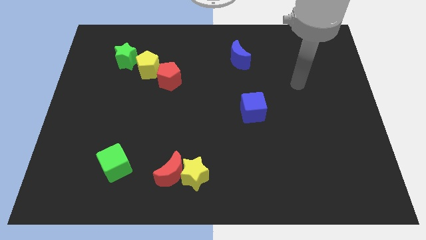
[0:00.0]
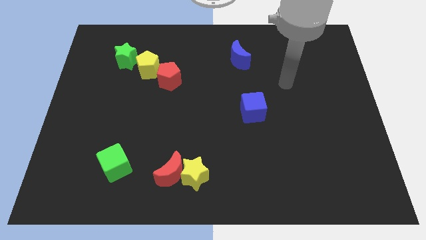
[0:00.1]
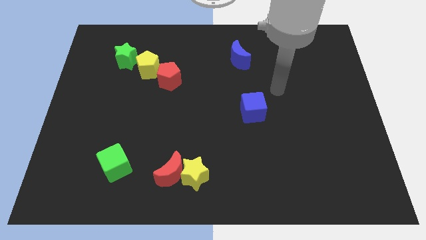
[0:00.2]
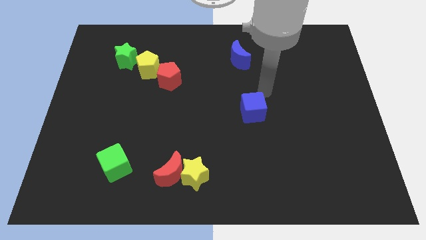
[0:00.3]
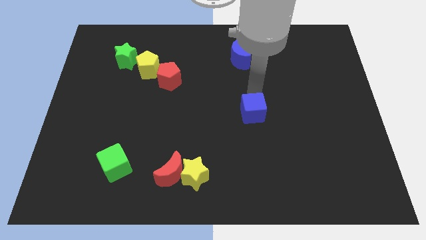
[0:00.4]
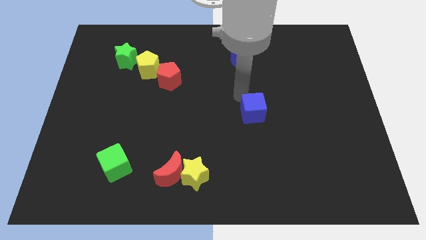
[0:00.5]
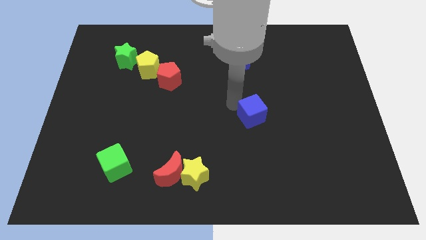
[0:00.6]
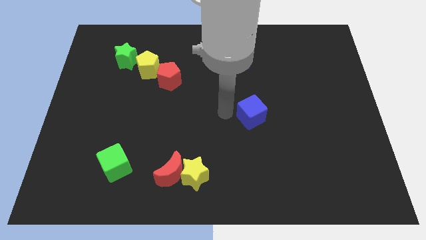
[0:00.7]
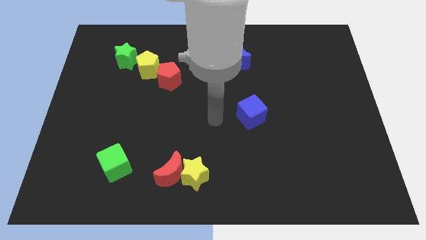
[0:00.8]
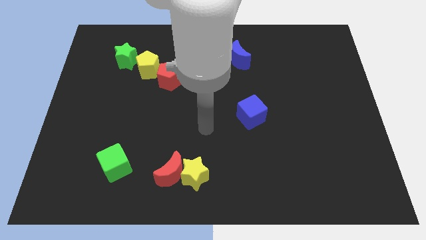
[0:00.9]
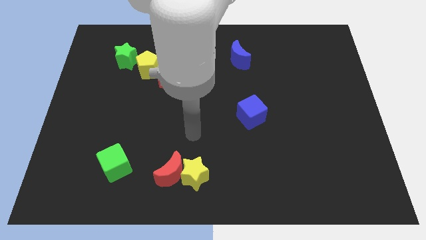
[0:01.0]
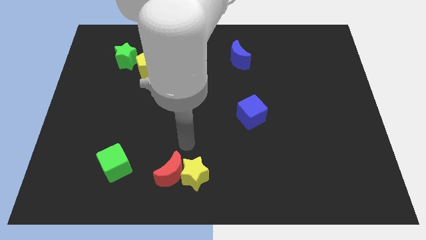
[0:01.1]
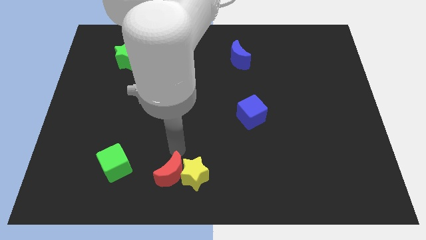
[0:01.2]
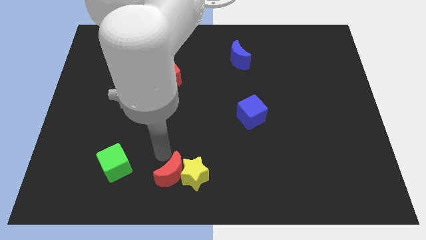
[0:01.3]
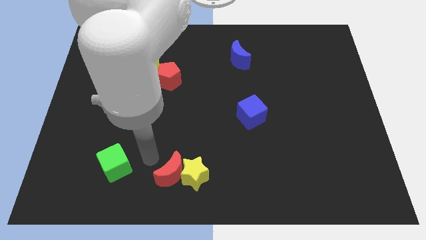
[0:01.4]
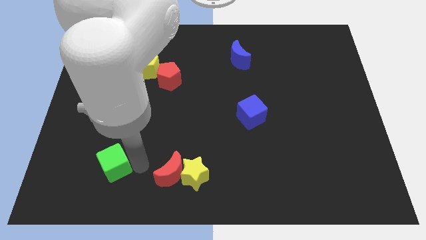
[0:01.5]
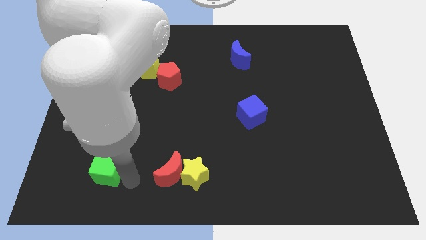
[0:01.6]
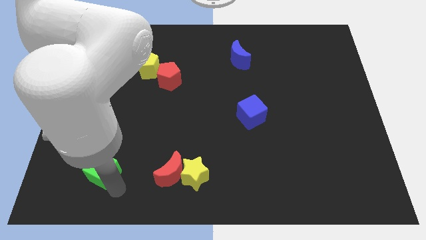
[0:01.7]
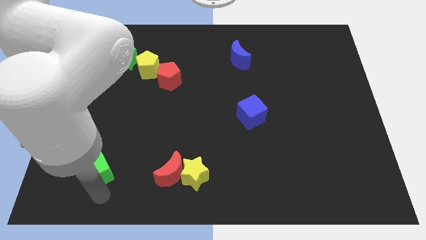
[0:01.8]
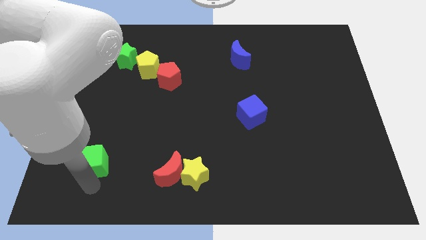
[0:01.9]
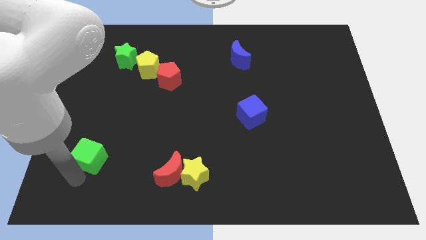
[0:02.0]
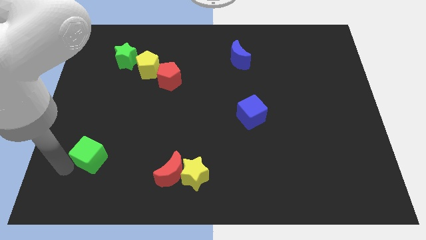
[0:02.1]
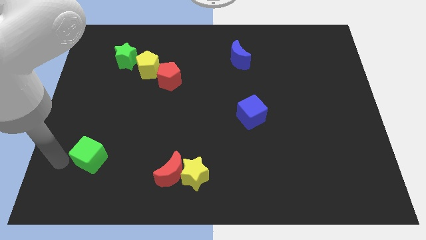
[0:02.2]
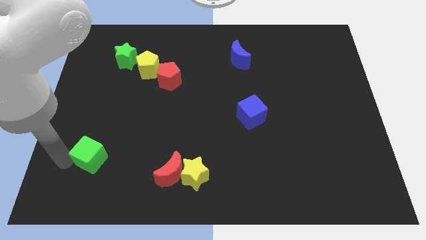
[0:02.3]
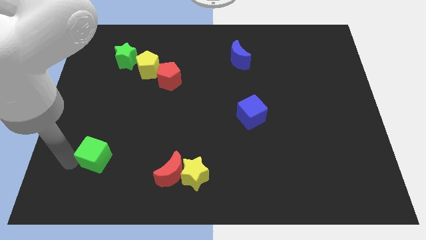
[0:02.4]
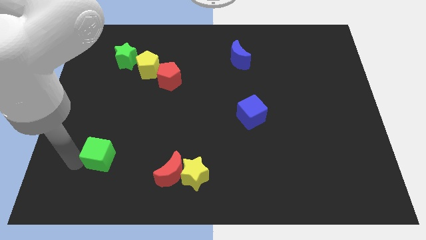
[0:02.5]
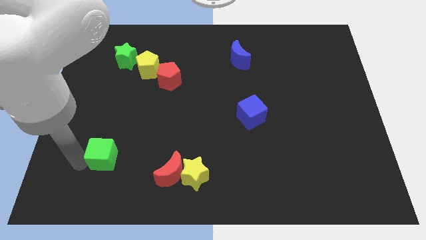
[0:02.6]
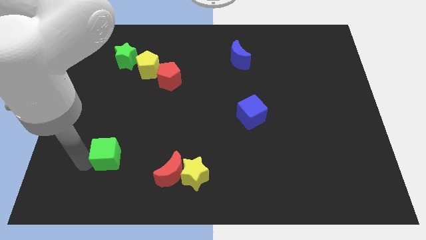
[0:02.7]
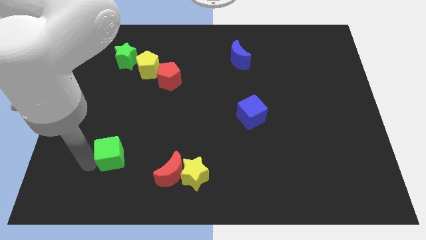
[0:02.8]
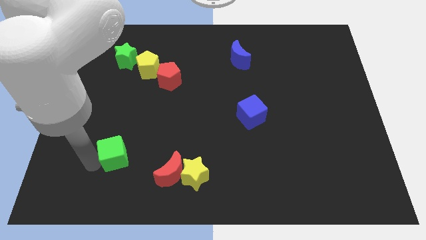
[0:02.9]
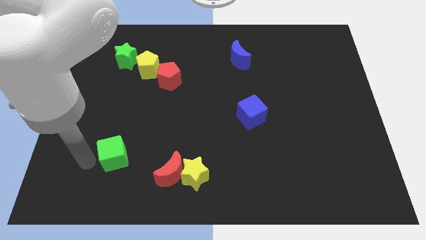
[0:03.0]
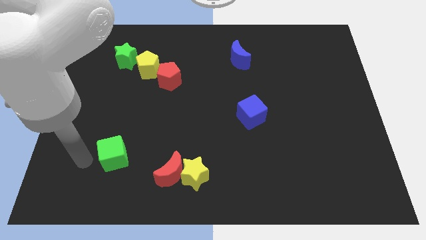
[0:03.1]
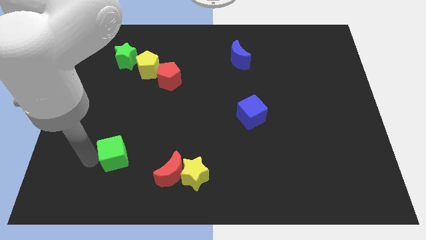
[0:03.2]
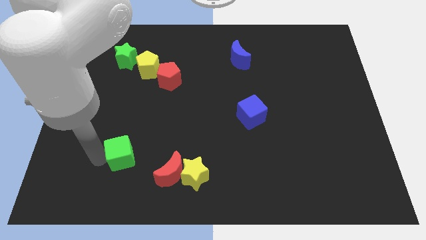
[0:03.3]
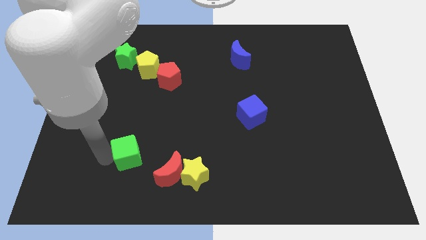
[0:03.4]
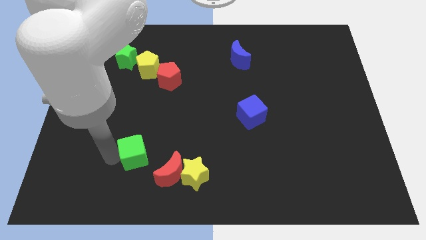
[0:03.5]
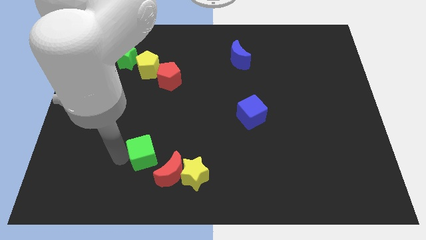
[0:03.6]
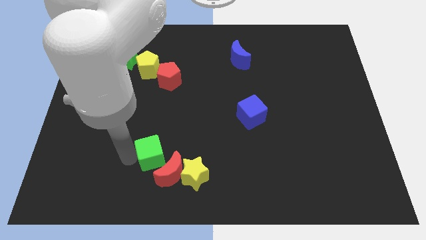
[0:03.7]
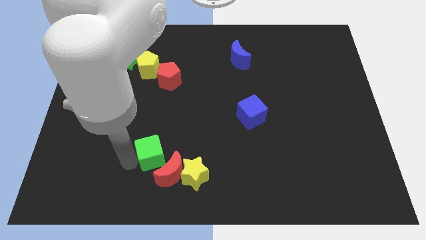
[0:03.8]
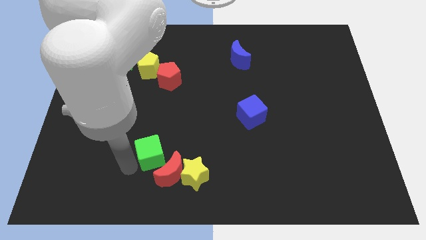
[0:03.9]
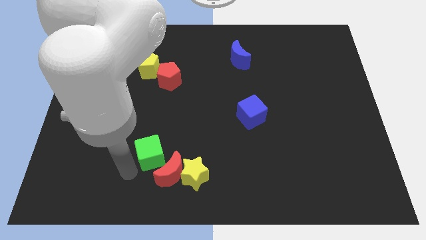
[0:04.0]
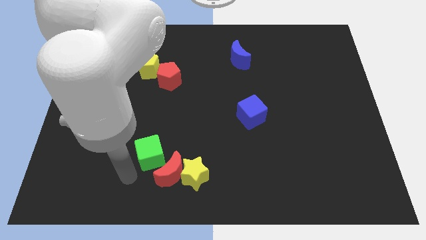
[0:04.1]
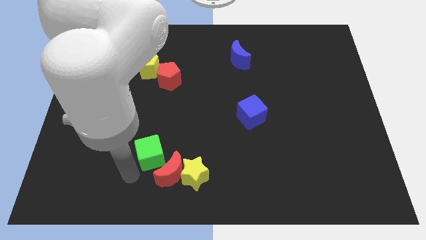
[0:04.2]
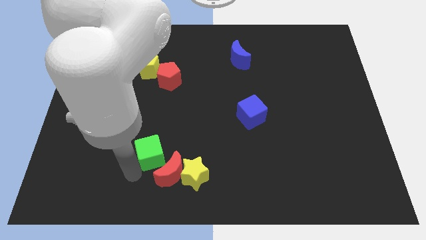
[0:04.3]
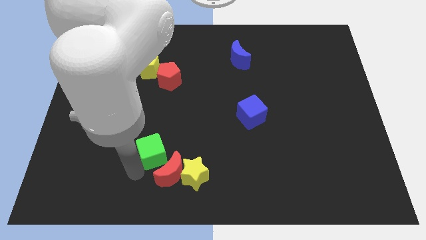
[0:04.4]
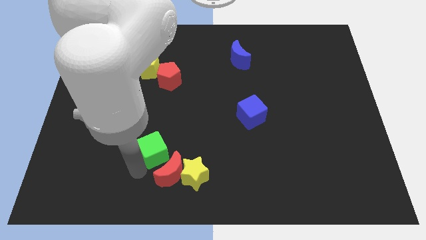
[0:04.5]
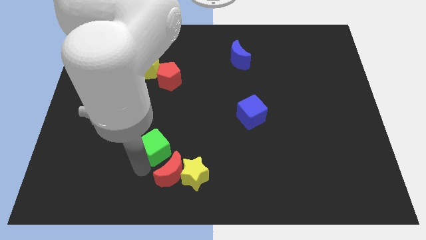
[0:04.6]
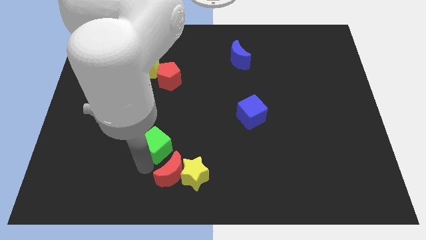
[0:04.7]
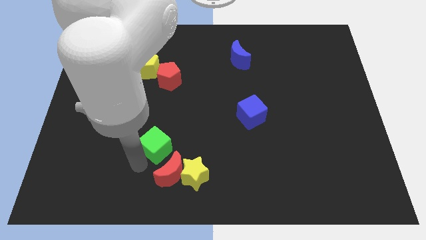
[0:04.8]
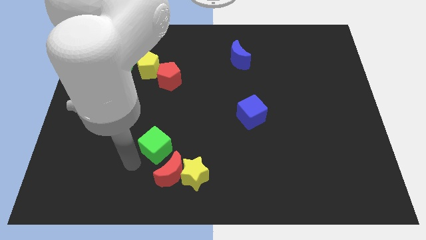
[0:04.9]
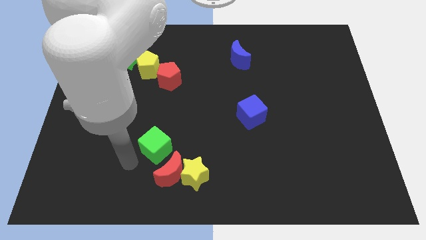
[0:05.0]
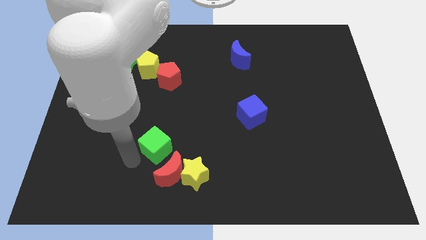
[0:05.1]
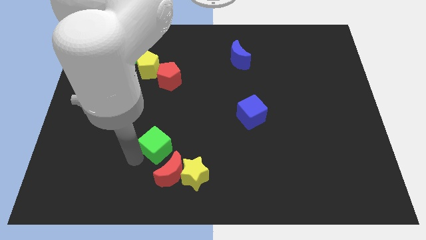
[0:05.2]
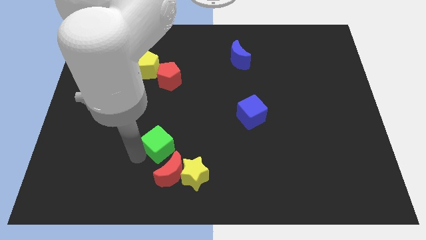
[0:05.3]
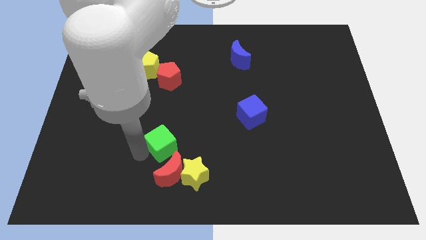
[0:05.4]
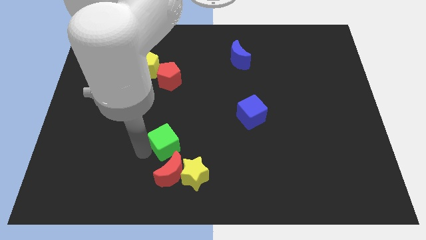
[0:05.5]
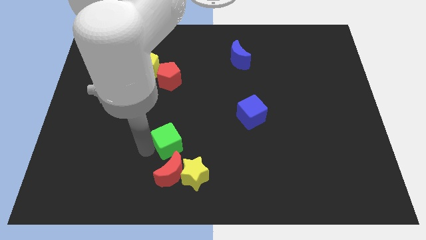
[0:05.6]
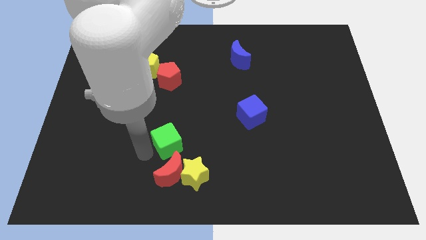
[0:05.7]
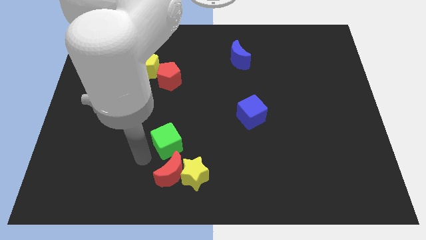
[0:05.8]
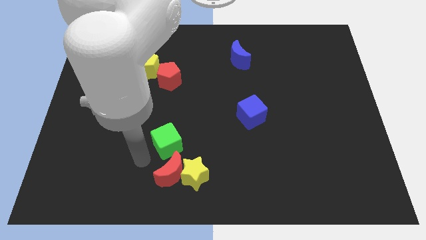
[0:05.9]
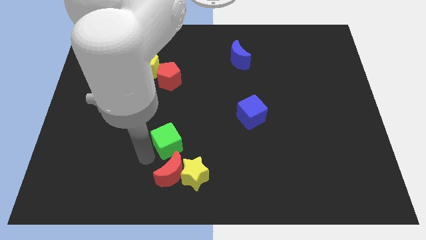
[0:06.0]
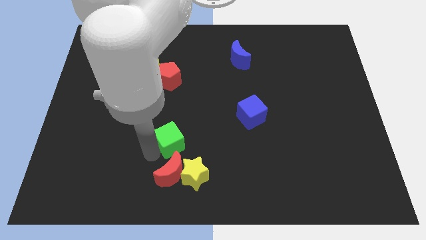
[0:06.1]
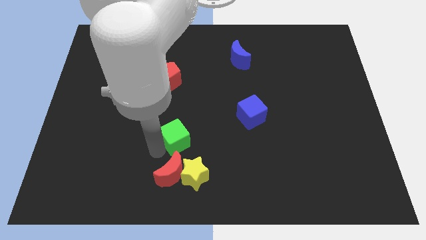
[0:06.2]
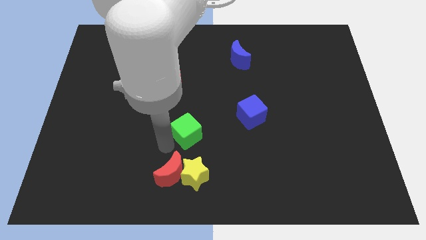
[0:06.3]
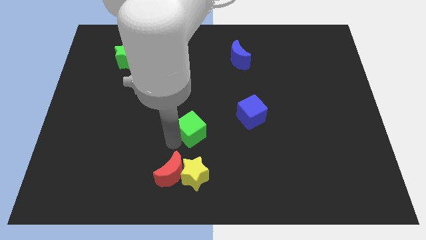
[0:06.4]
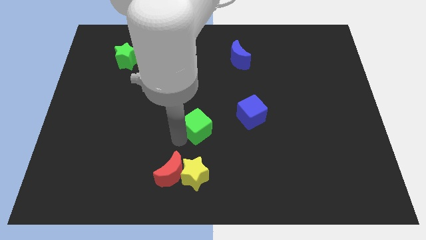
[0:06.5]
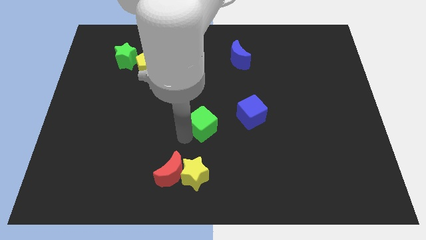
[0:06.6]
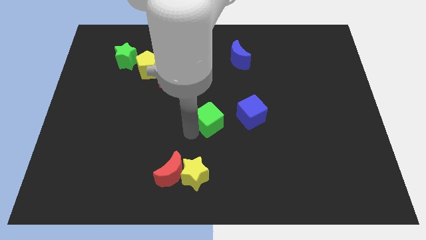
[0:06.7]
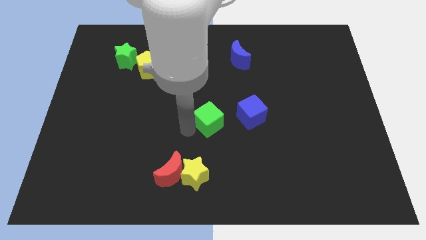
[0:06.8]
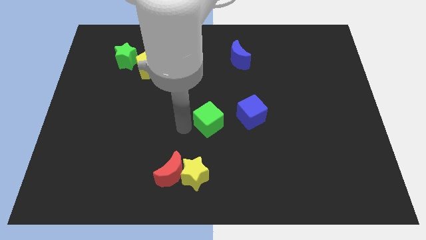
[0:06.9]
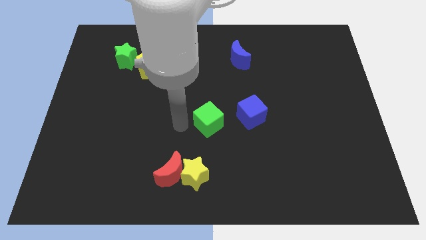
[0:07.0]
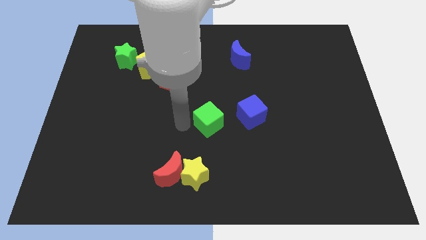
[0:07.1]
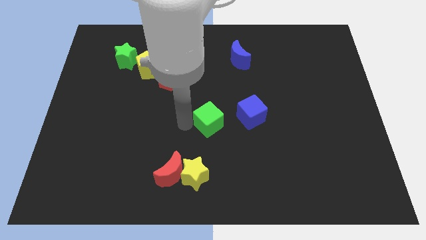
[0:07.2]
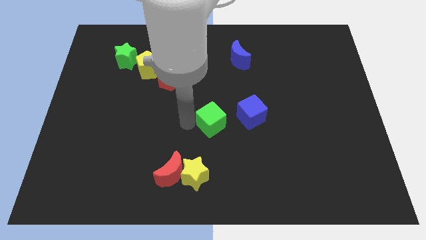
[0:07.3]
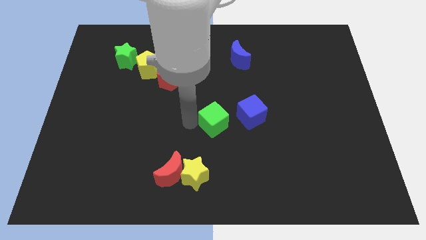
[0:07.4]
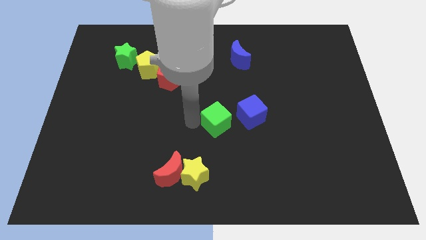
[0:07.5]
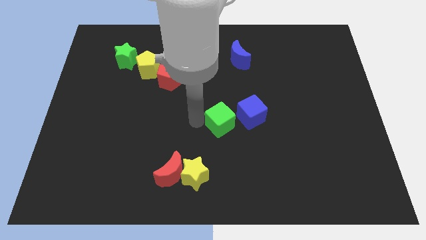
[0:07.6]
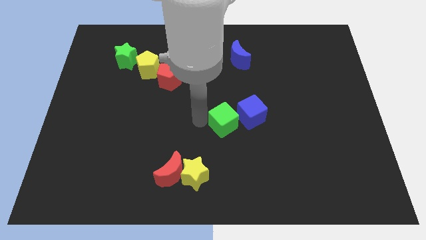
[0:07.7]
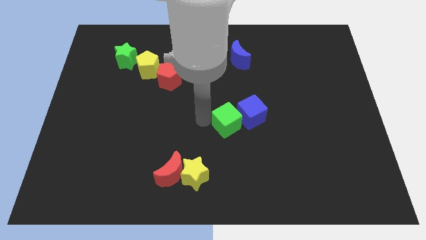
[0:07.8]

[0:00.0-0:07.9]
slide the green cube towards the blue cube
